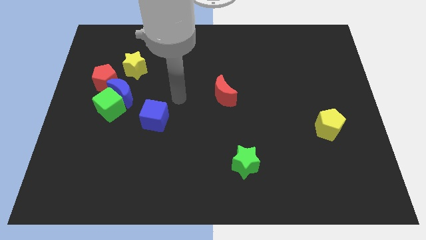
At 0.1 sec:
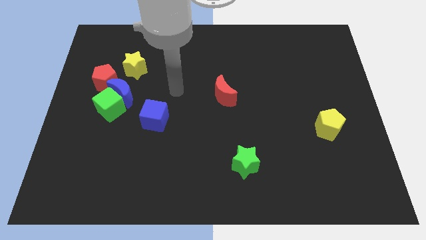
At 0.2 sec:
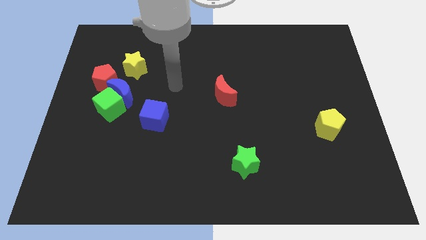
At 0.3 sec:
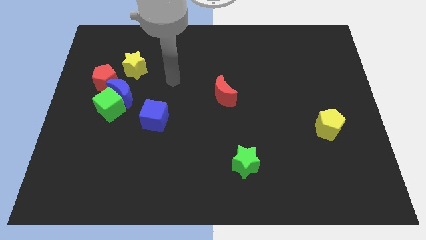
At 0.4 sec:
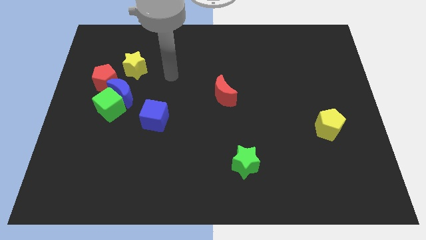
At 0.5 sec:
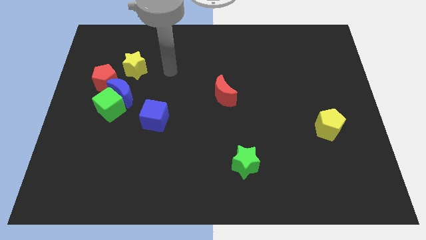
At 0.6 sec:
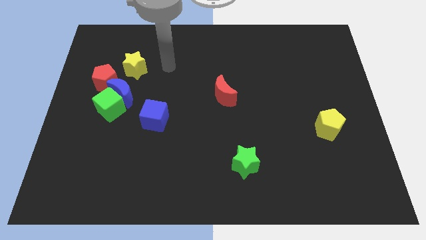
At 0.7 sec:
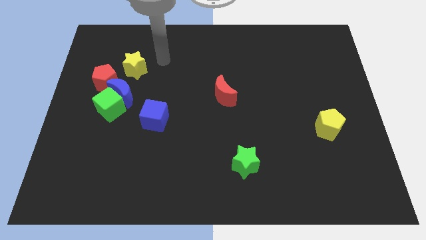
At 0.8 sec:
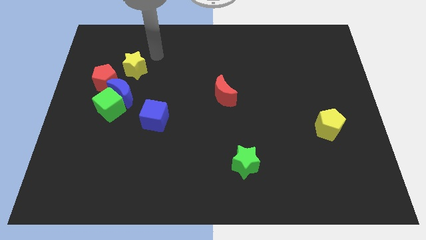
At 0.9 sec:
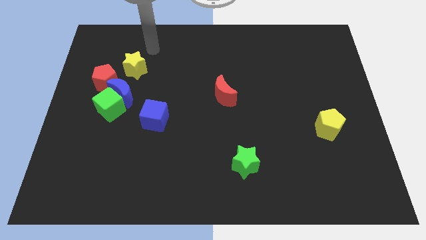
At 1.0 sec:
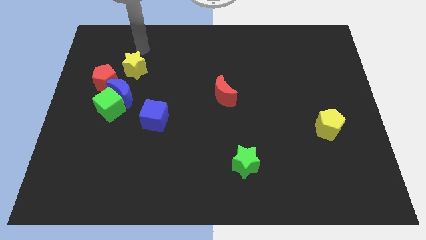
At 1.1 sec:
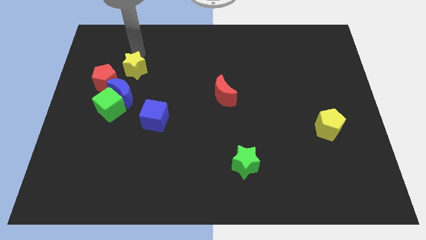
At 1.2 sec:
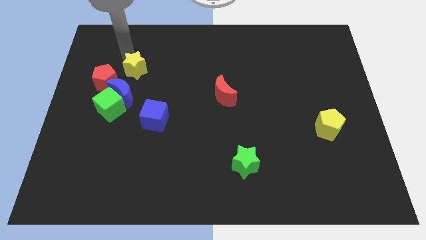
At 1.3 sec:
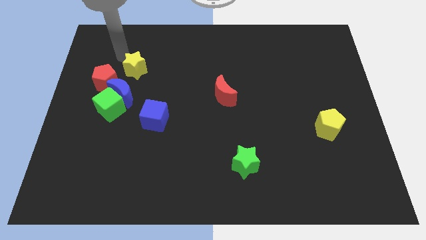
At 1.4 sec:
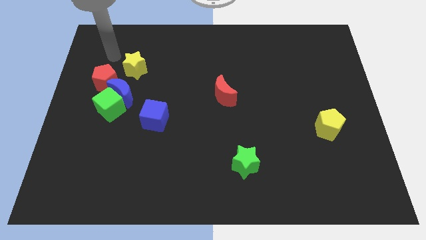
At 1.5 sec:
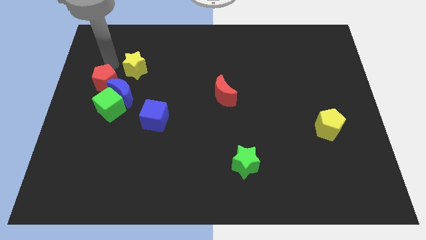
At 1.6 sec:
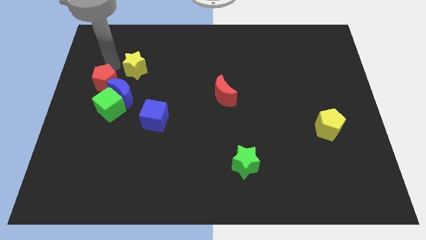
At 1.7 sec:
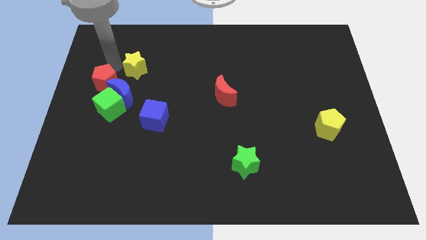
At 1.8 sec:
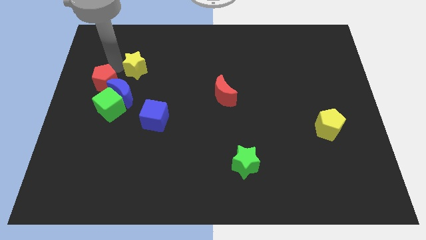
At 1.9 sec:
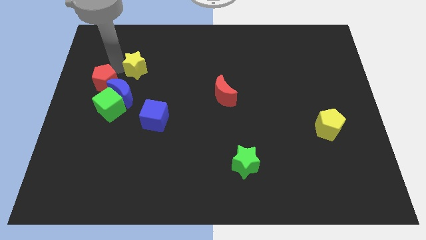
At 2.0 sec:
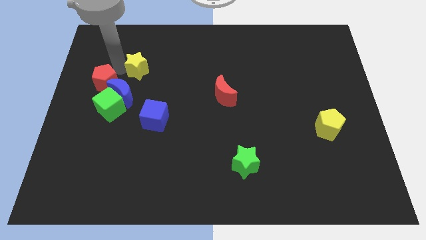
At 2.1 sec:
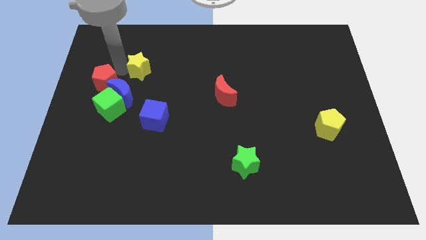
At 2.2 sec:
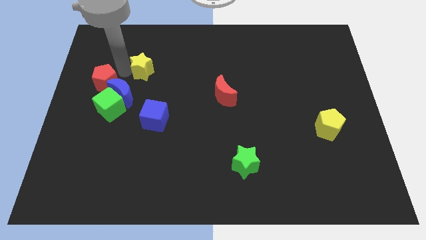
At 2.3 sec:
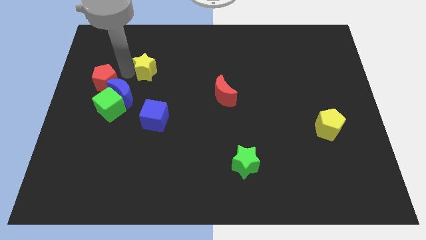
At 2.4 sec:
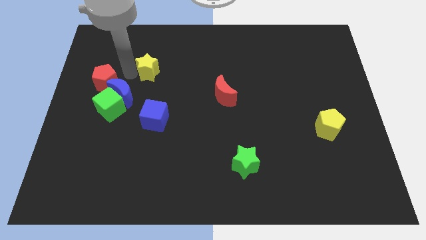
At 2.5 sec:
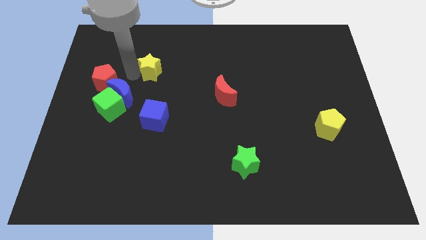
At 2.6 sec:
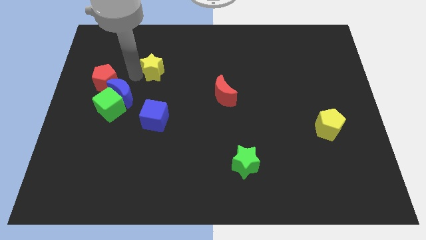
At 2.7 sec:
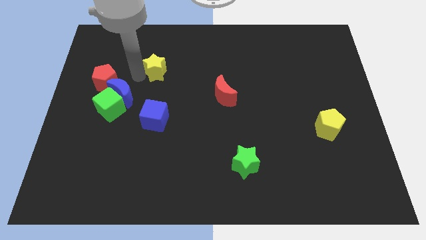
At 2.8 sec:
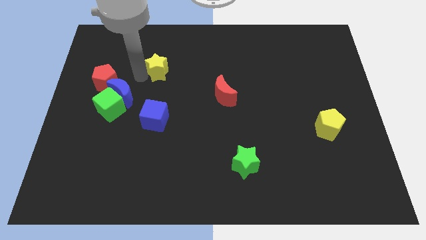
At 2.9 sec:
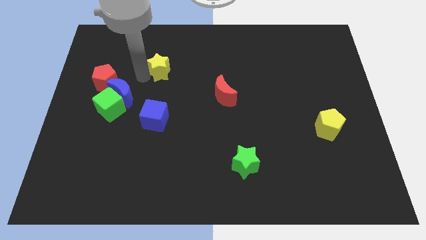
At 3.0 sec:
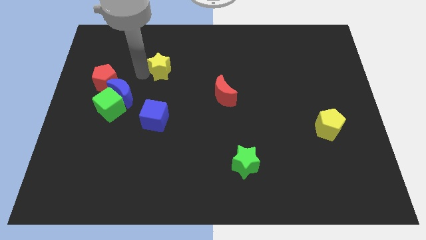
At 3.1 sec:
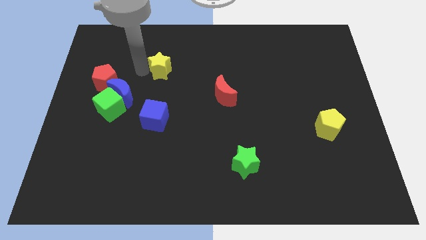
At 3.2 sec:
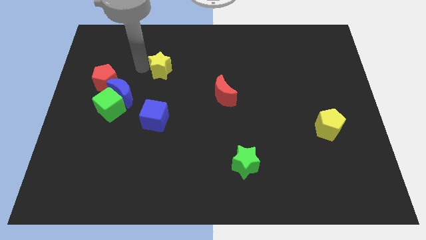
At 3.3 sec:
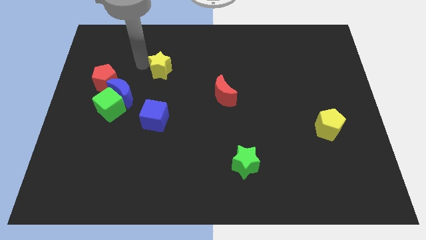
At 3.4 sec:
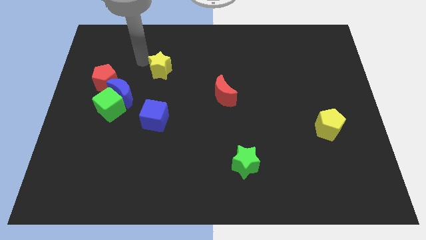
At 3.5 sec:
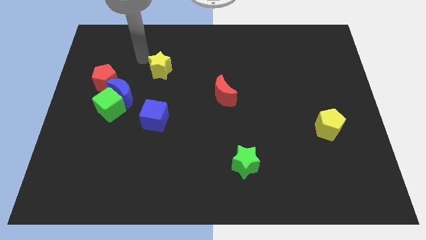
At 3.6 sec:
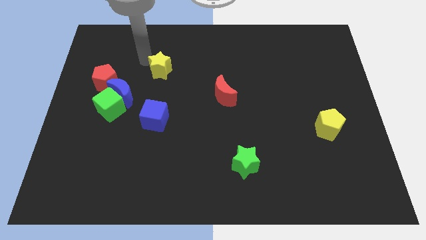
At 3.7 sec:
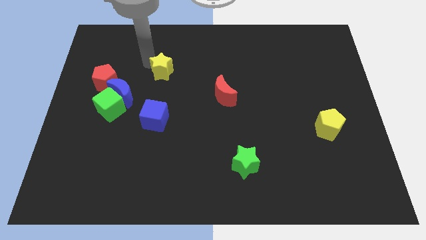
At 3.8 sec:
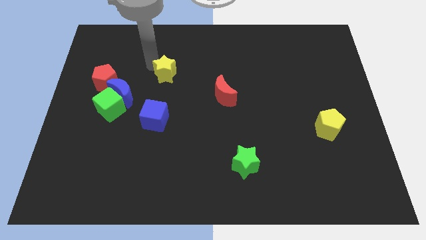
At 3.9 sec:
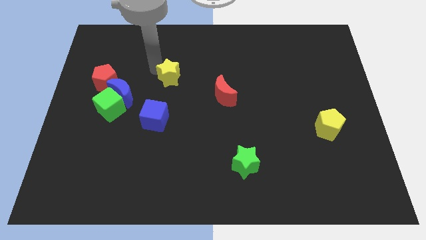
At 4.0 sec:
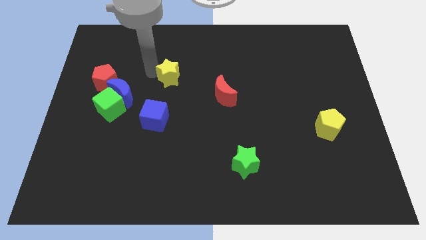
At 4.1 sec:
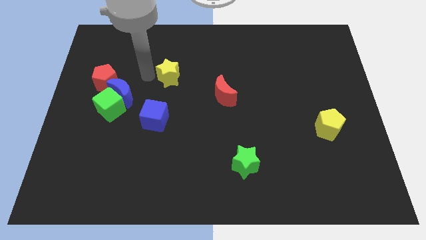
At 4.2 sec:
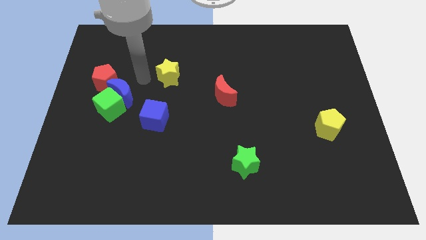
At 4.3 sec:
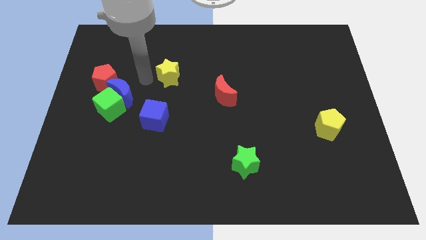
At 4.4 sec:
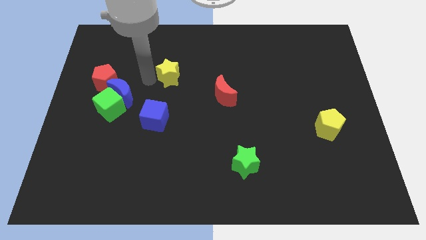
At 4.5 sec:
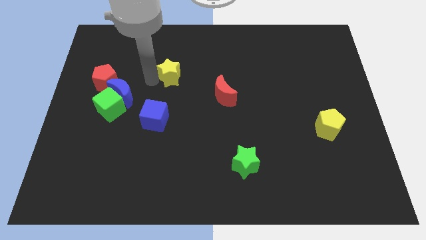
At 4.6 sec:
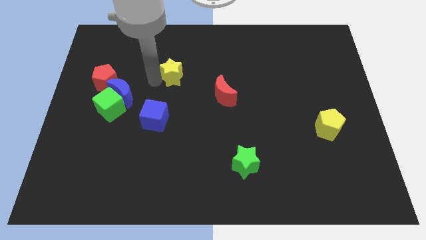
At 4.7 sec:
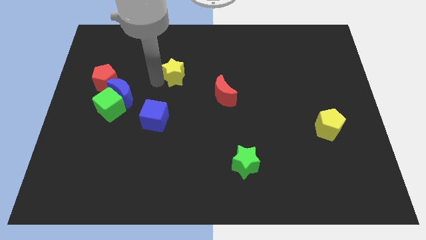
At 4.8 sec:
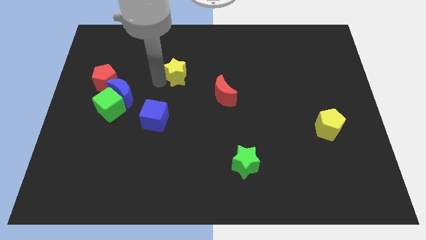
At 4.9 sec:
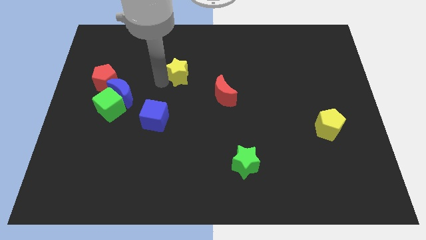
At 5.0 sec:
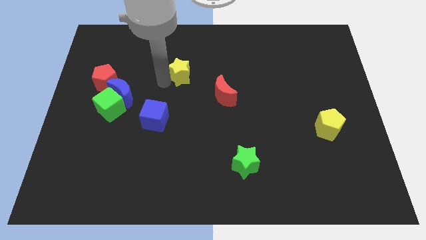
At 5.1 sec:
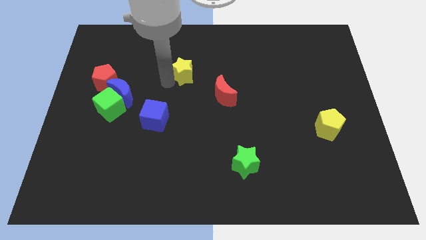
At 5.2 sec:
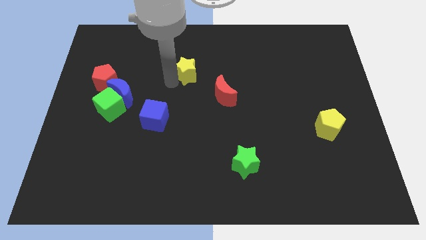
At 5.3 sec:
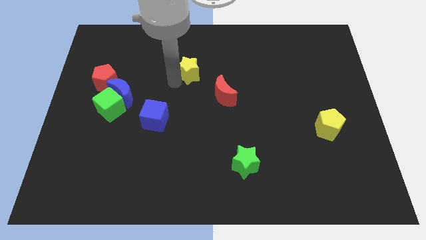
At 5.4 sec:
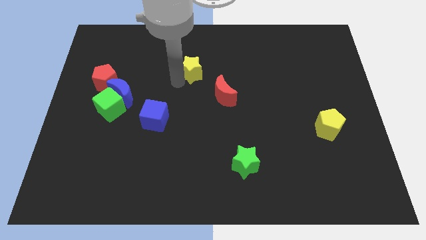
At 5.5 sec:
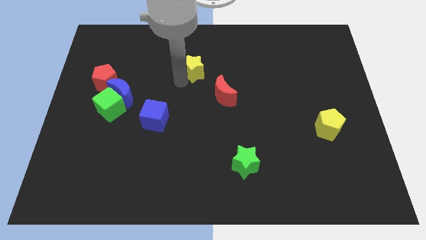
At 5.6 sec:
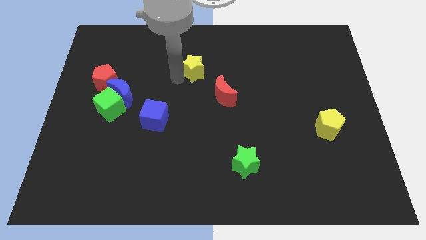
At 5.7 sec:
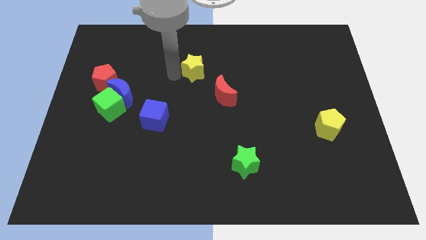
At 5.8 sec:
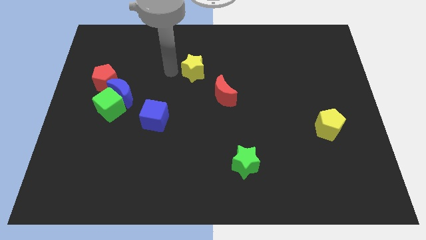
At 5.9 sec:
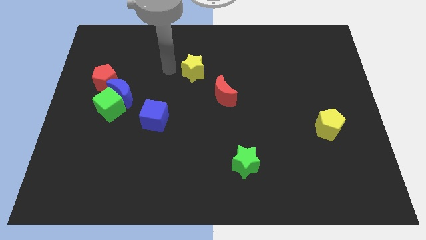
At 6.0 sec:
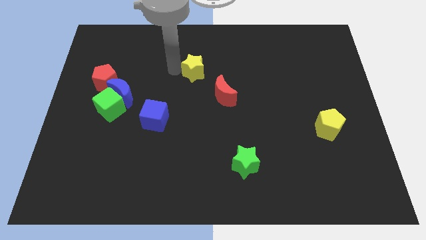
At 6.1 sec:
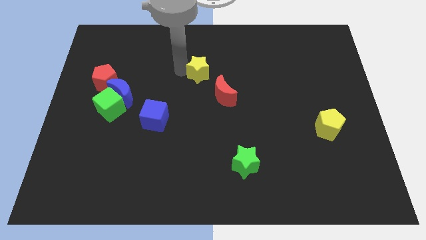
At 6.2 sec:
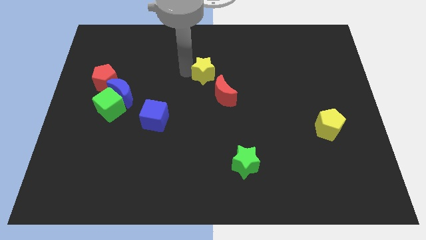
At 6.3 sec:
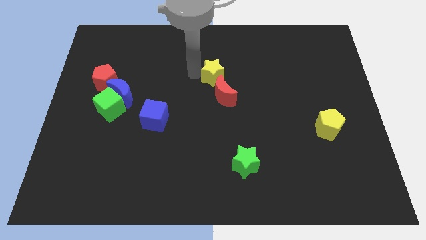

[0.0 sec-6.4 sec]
move the yellow star to the right
